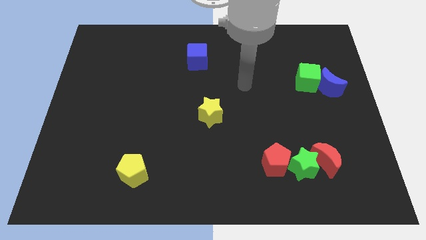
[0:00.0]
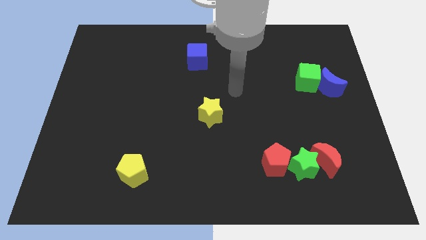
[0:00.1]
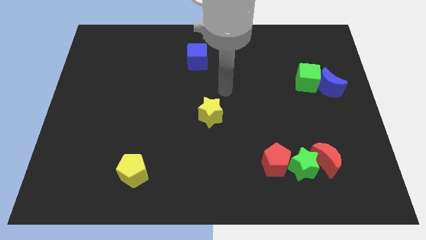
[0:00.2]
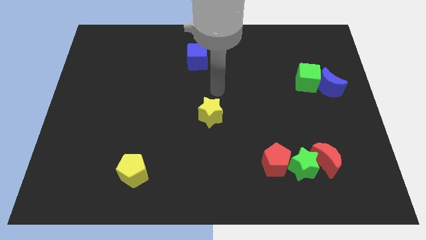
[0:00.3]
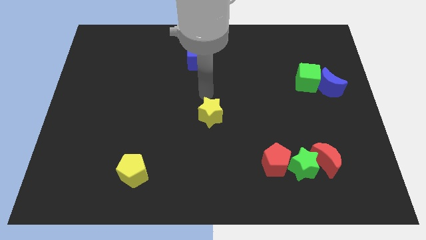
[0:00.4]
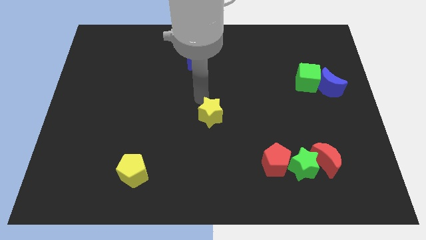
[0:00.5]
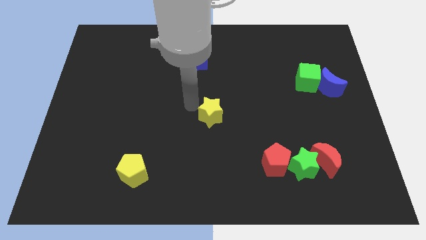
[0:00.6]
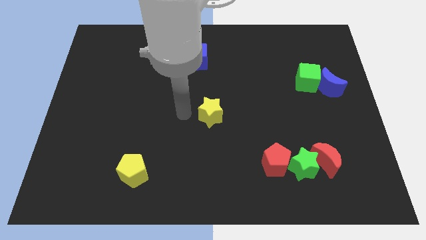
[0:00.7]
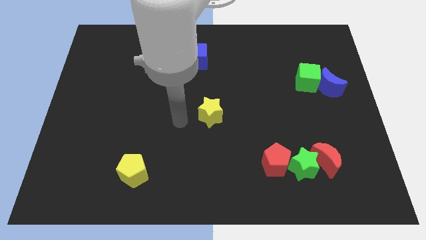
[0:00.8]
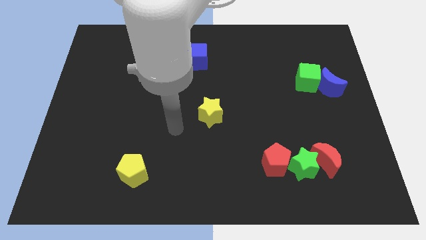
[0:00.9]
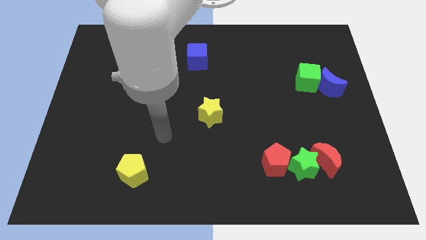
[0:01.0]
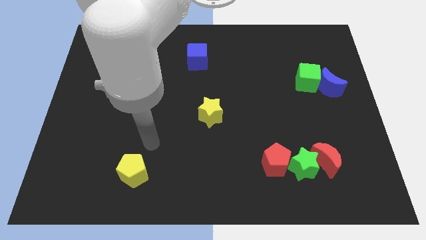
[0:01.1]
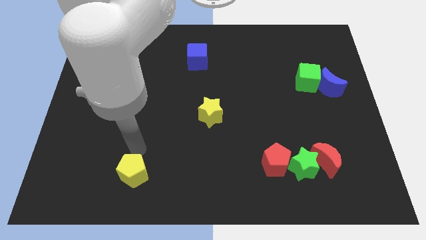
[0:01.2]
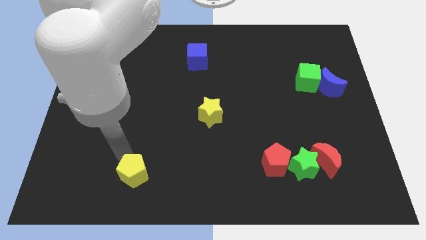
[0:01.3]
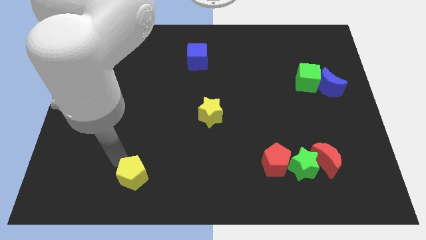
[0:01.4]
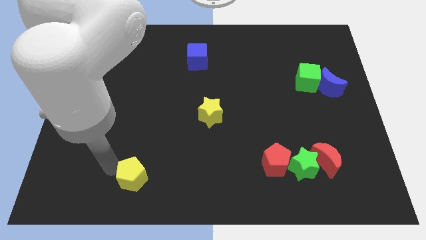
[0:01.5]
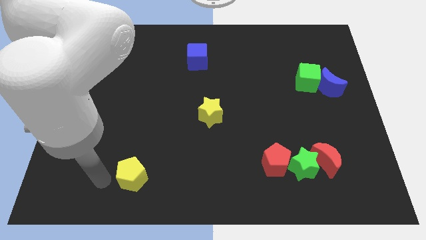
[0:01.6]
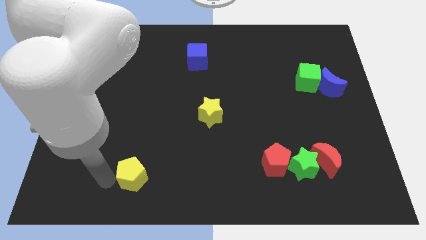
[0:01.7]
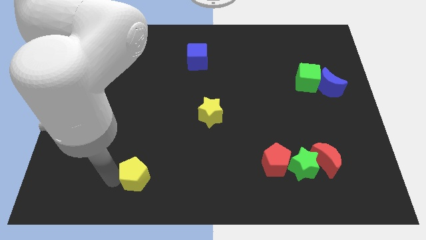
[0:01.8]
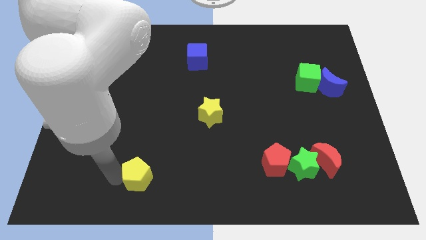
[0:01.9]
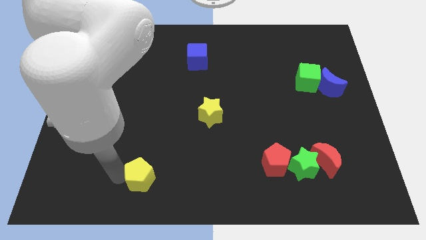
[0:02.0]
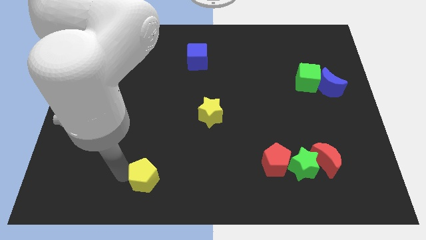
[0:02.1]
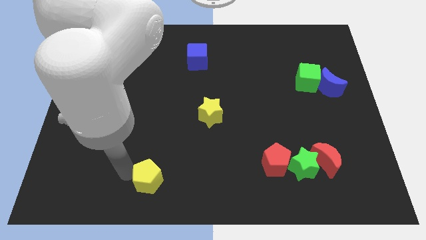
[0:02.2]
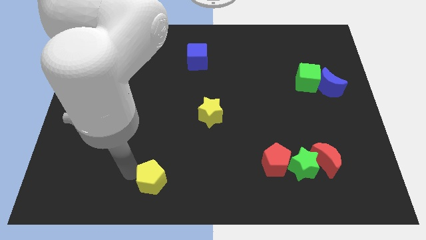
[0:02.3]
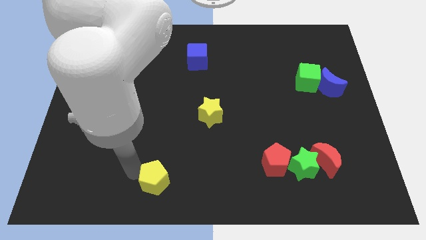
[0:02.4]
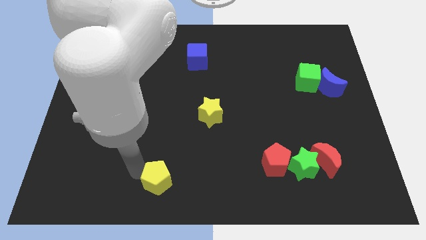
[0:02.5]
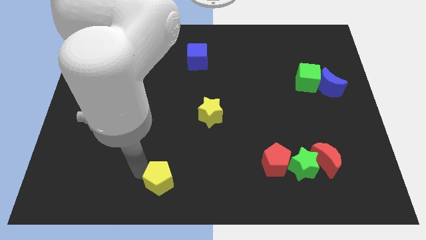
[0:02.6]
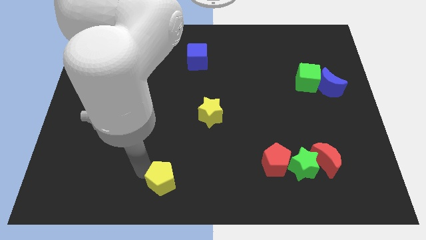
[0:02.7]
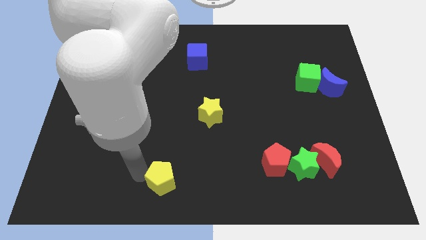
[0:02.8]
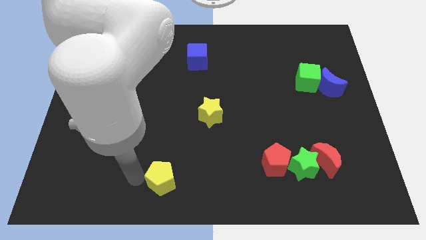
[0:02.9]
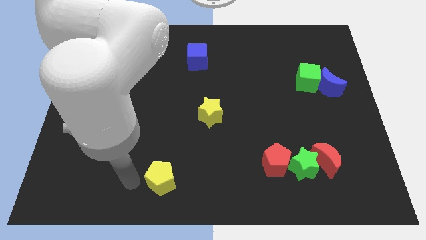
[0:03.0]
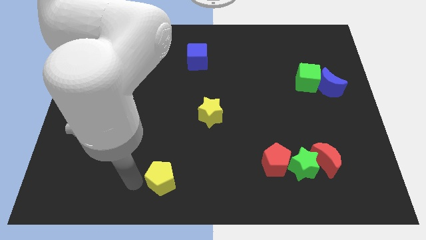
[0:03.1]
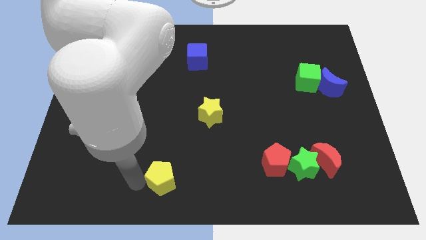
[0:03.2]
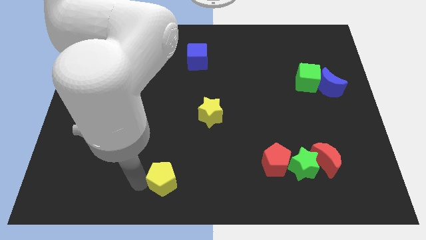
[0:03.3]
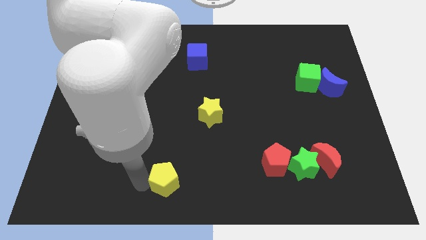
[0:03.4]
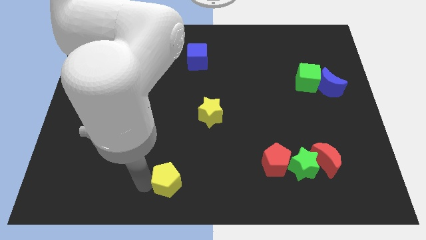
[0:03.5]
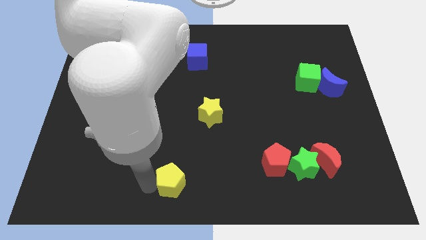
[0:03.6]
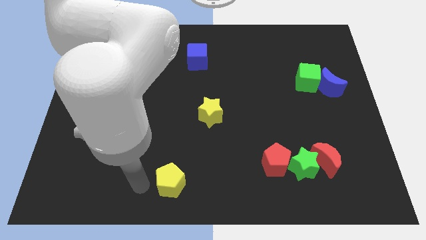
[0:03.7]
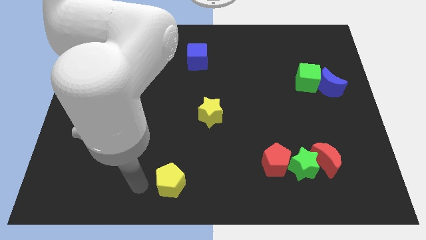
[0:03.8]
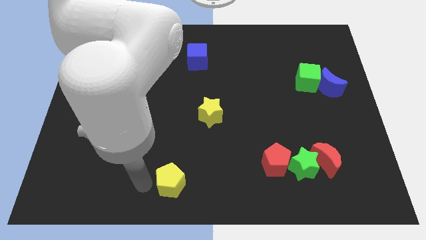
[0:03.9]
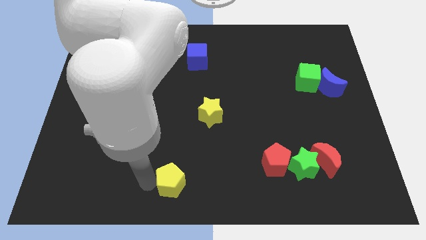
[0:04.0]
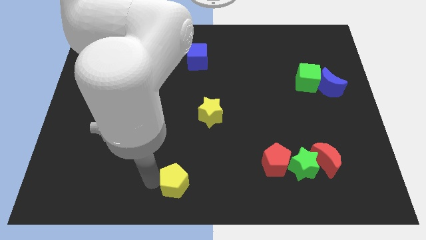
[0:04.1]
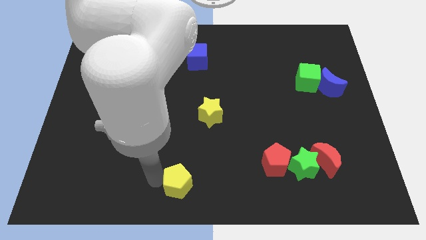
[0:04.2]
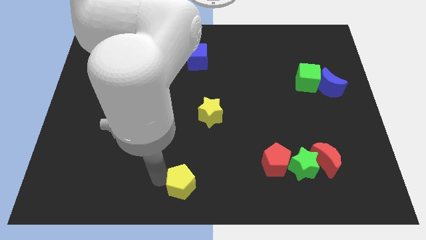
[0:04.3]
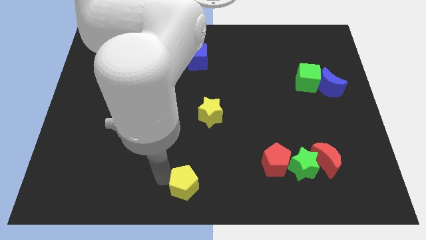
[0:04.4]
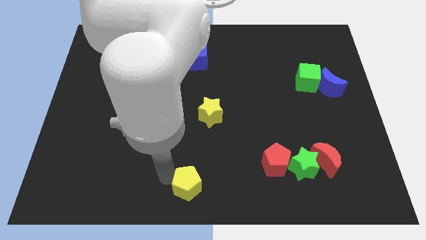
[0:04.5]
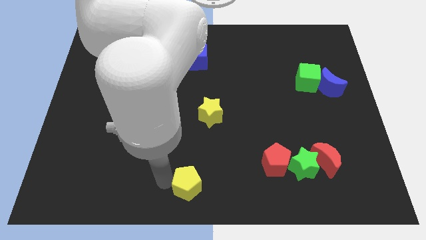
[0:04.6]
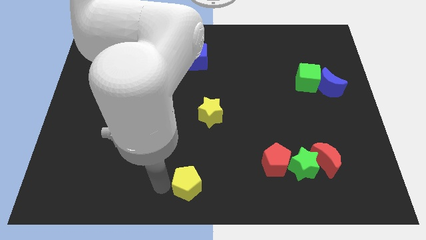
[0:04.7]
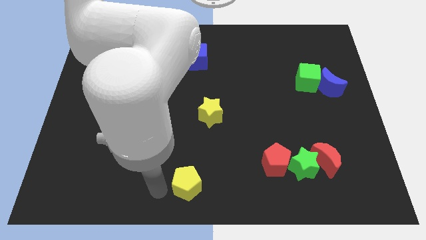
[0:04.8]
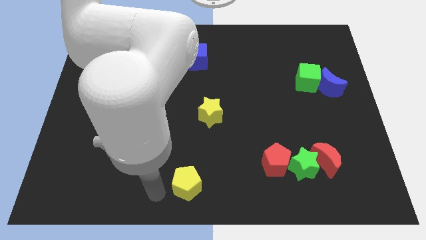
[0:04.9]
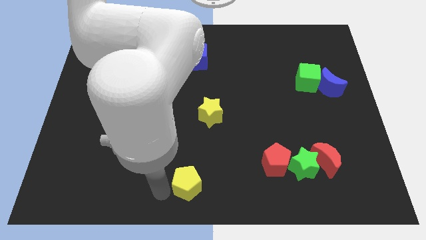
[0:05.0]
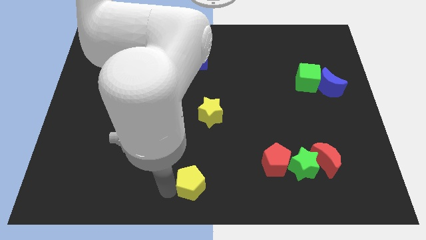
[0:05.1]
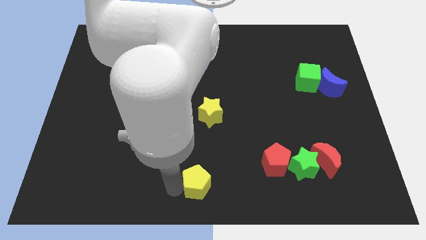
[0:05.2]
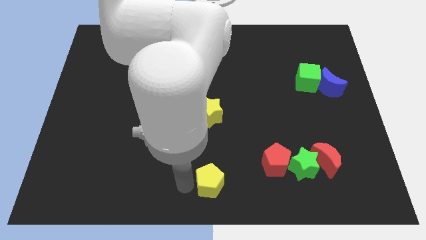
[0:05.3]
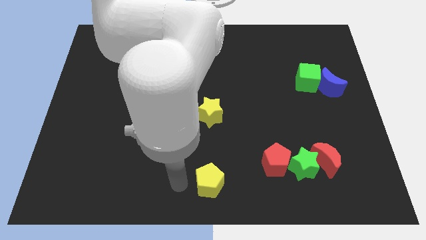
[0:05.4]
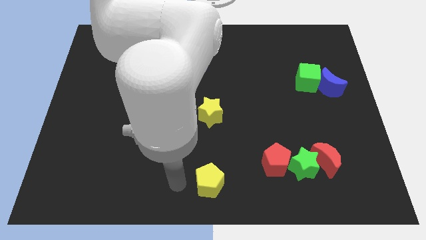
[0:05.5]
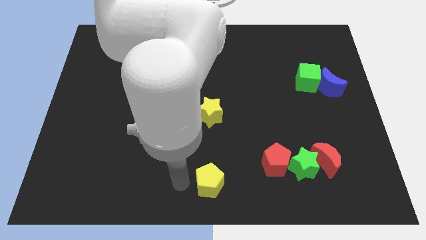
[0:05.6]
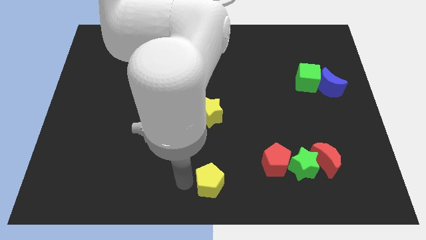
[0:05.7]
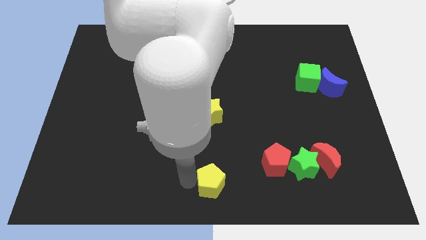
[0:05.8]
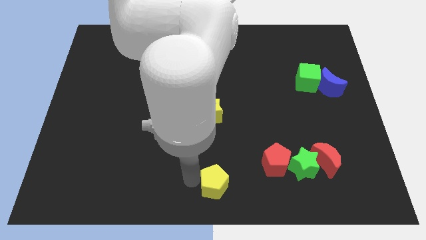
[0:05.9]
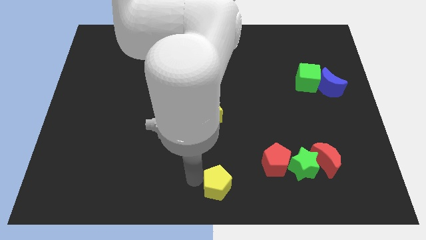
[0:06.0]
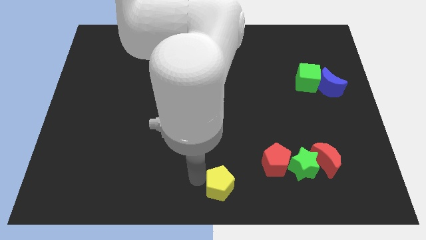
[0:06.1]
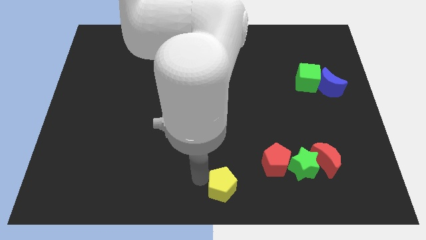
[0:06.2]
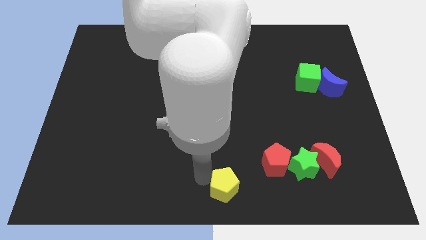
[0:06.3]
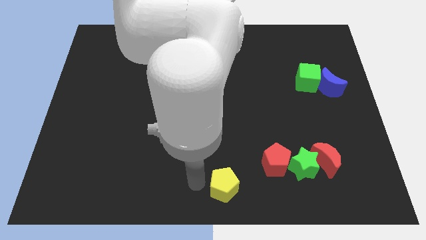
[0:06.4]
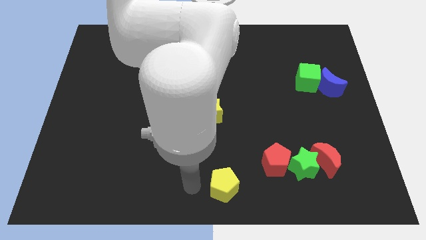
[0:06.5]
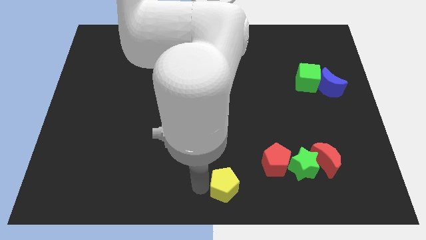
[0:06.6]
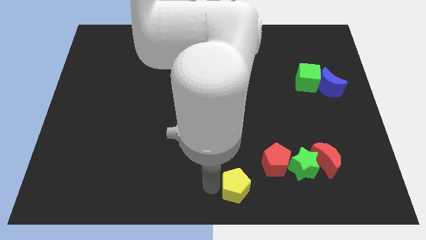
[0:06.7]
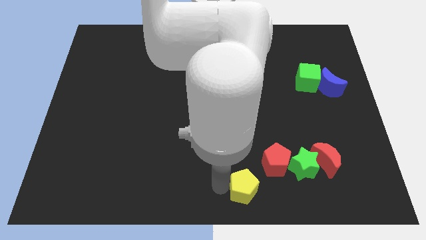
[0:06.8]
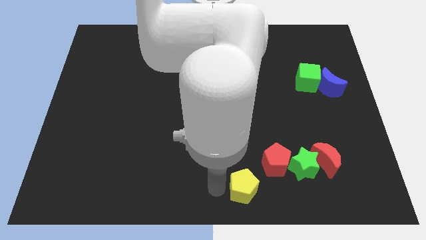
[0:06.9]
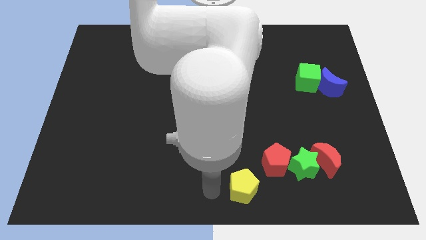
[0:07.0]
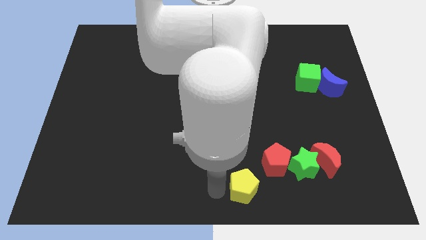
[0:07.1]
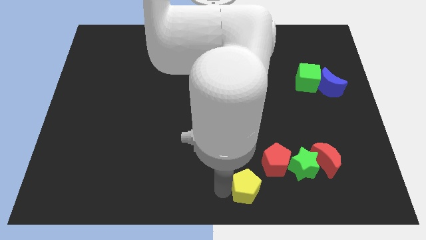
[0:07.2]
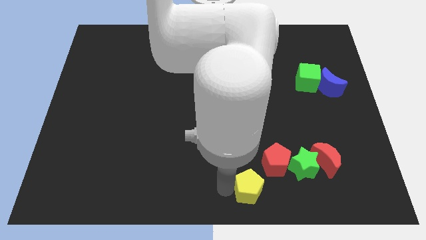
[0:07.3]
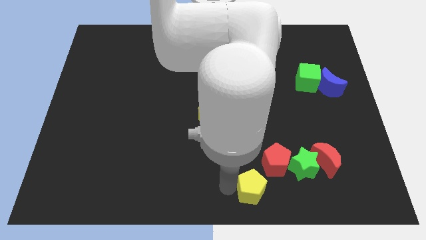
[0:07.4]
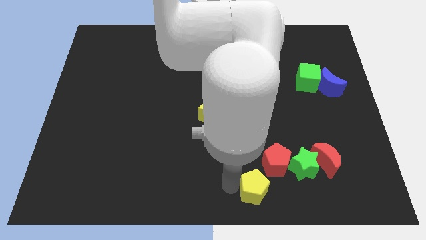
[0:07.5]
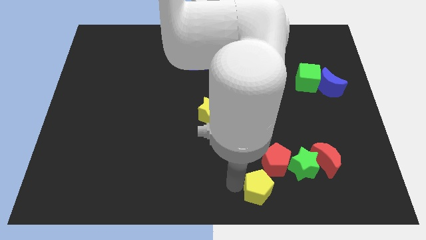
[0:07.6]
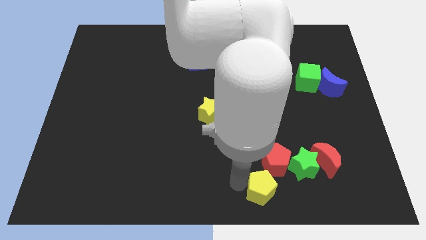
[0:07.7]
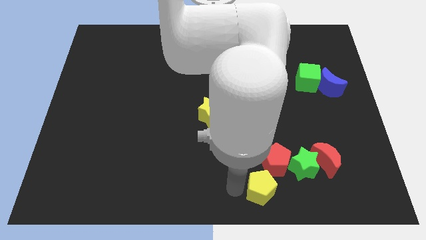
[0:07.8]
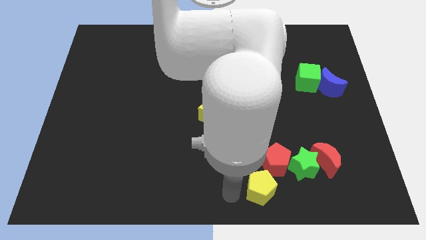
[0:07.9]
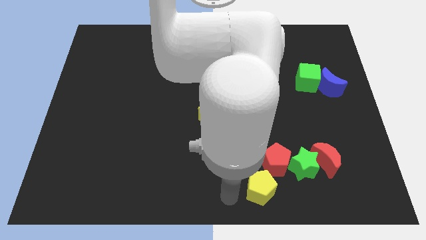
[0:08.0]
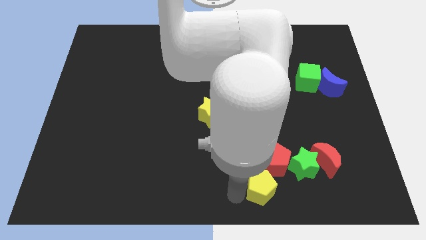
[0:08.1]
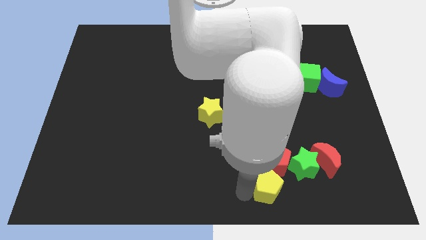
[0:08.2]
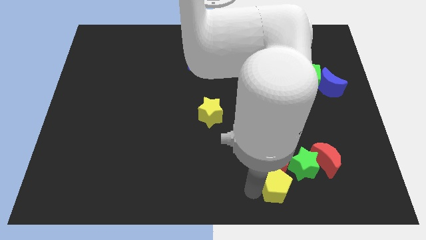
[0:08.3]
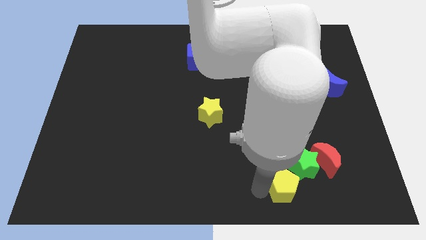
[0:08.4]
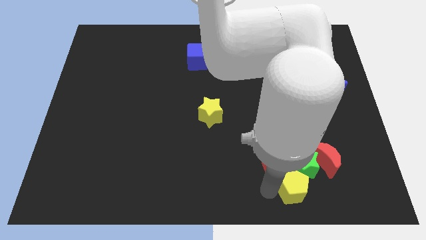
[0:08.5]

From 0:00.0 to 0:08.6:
push the yellow pentagon towards the green star
